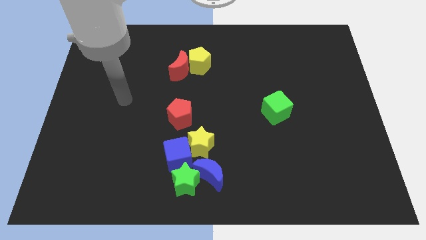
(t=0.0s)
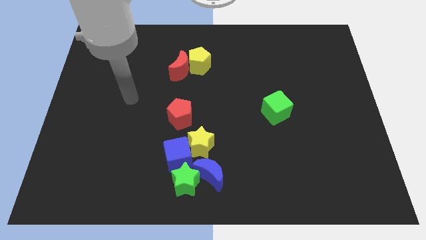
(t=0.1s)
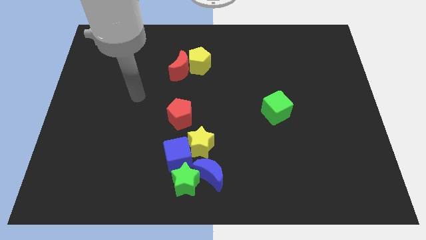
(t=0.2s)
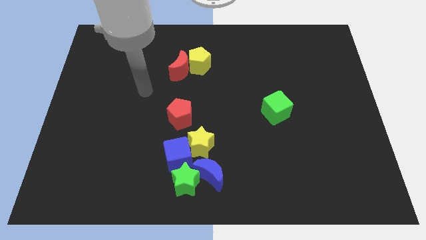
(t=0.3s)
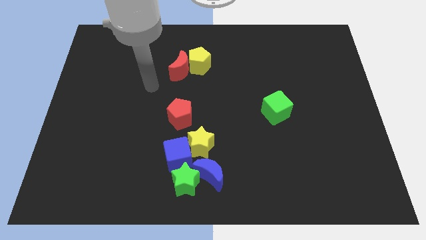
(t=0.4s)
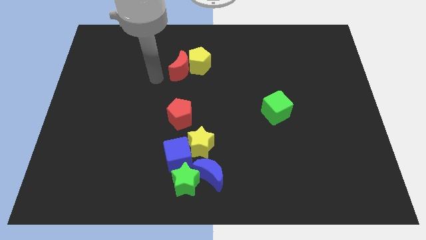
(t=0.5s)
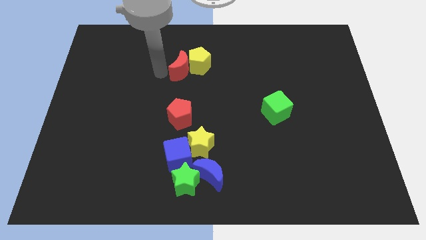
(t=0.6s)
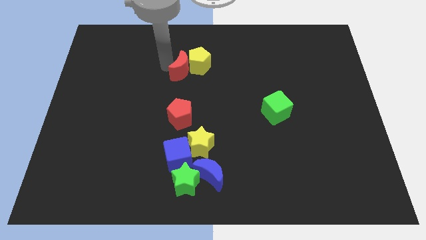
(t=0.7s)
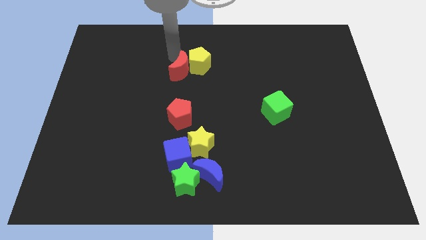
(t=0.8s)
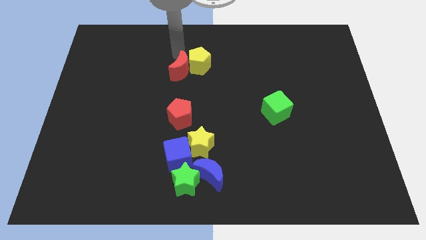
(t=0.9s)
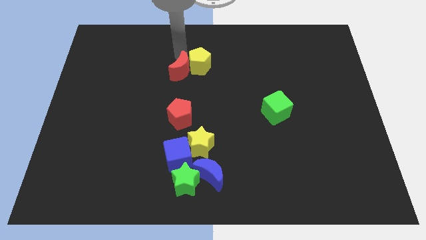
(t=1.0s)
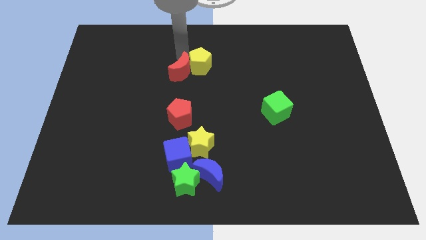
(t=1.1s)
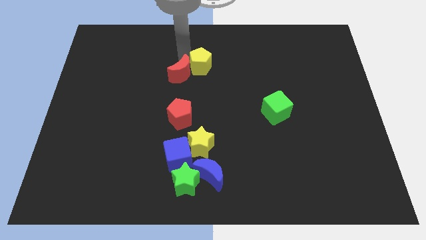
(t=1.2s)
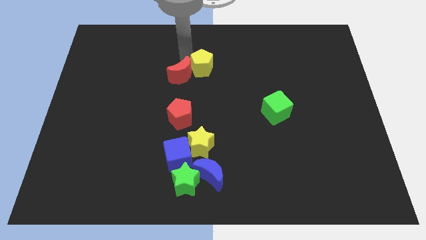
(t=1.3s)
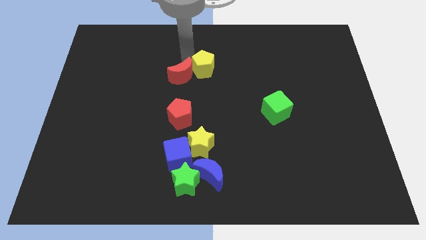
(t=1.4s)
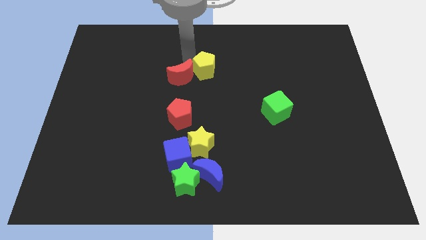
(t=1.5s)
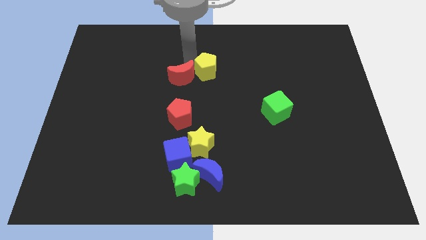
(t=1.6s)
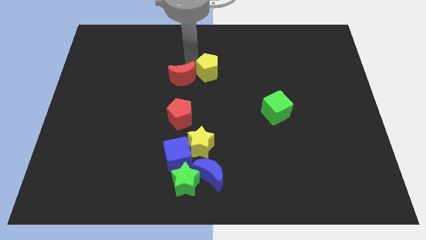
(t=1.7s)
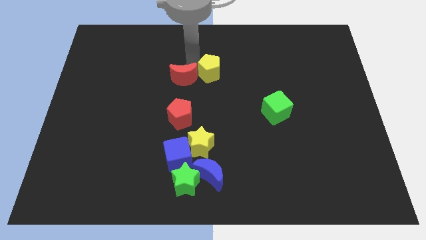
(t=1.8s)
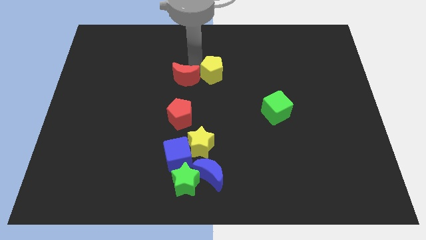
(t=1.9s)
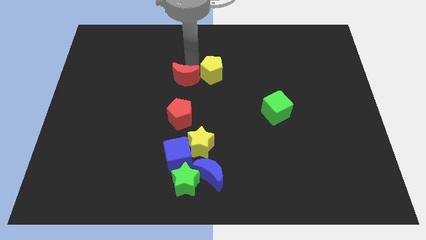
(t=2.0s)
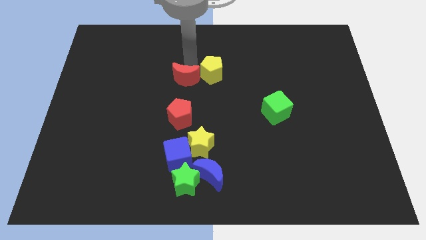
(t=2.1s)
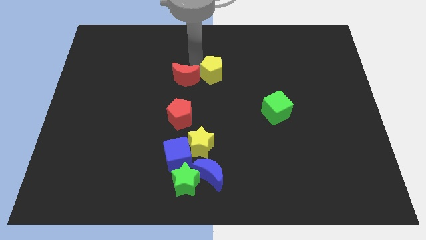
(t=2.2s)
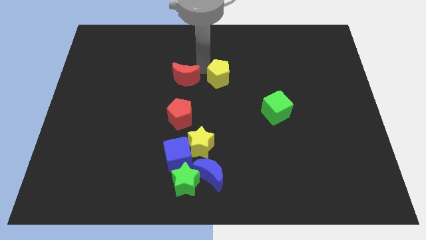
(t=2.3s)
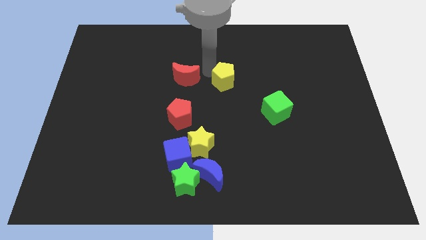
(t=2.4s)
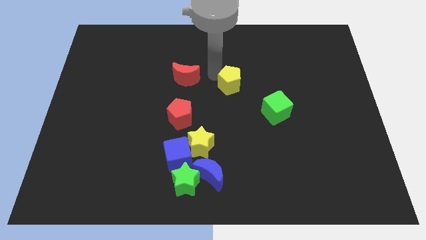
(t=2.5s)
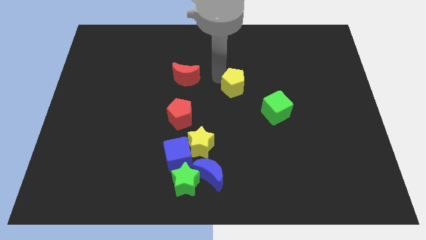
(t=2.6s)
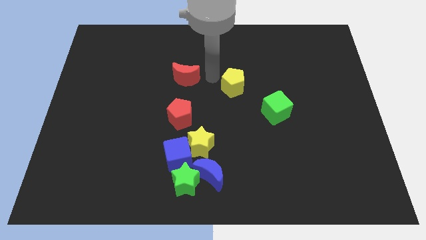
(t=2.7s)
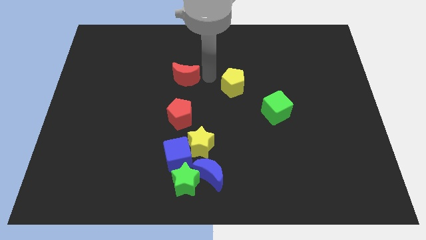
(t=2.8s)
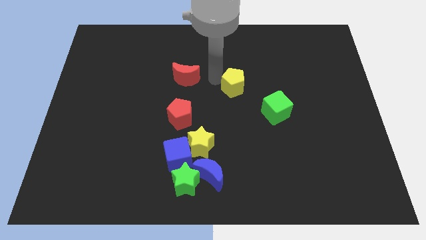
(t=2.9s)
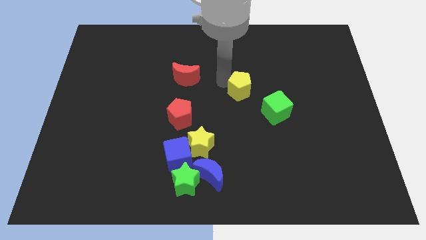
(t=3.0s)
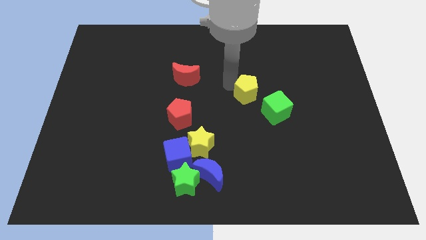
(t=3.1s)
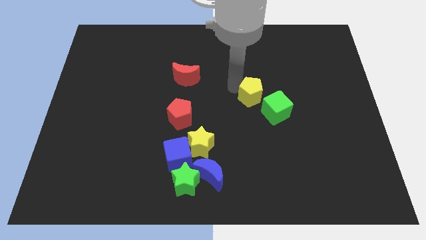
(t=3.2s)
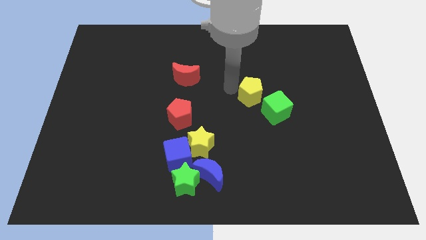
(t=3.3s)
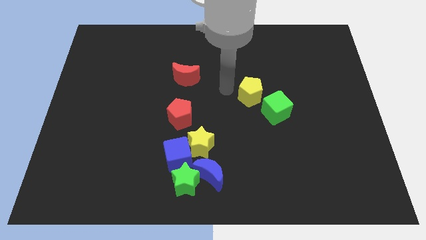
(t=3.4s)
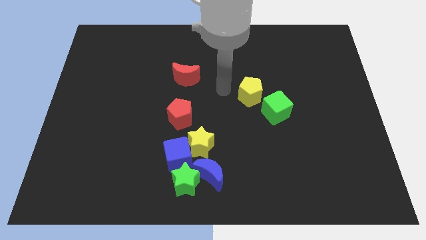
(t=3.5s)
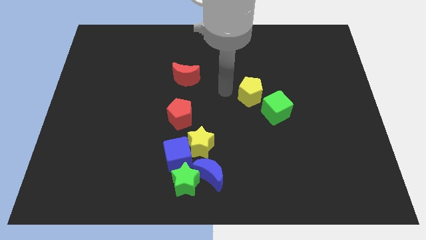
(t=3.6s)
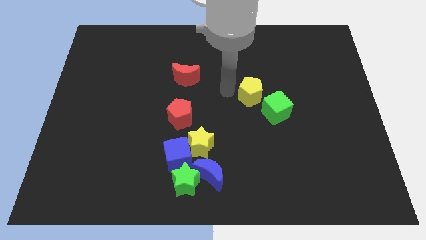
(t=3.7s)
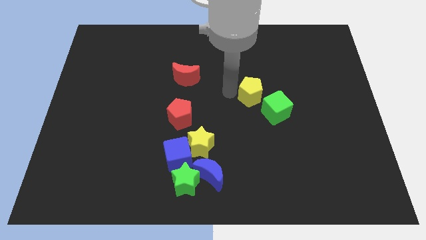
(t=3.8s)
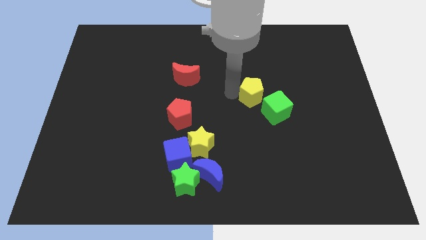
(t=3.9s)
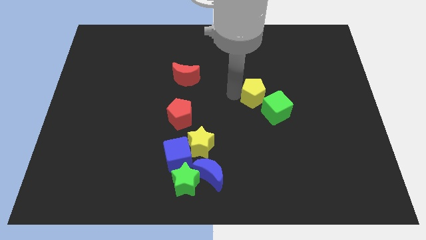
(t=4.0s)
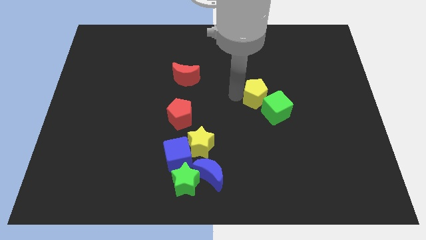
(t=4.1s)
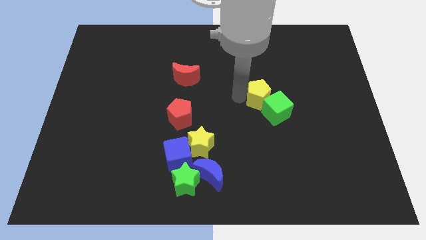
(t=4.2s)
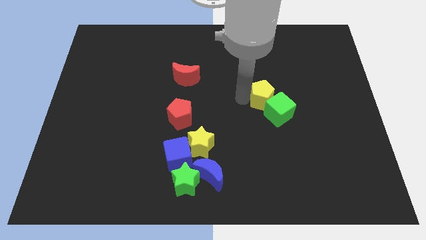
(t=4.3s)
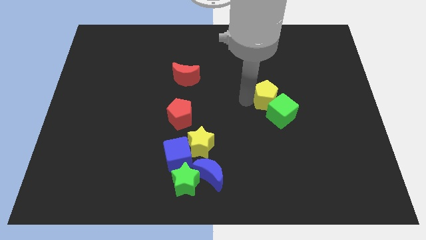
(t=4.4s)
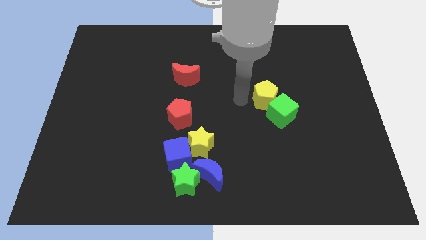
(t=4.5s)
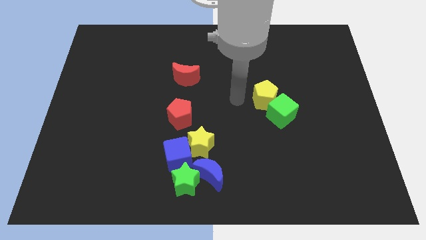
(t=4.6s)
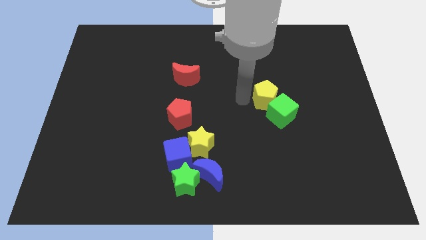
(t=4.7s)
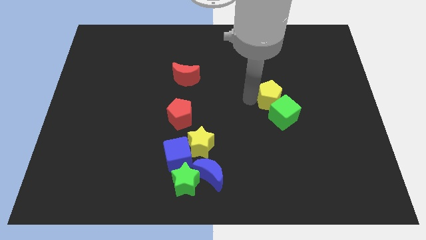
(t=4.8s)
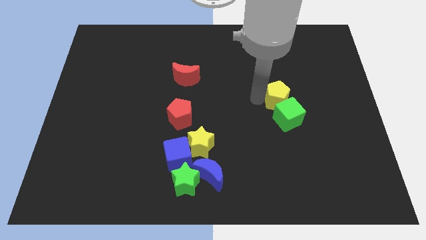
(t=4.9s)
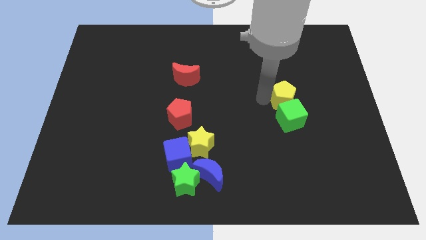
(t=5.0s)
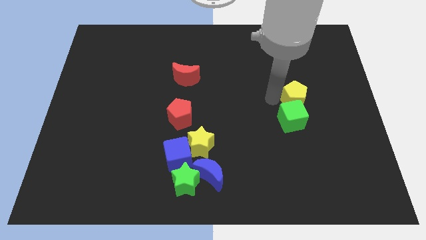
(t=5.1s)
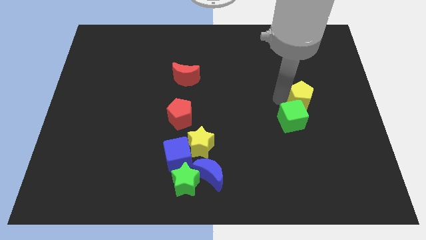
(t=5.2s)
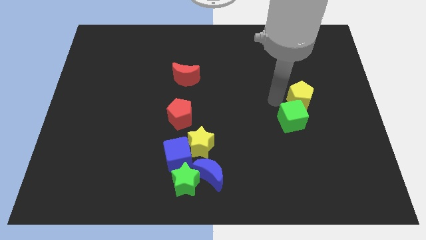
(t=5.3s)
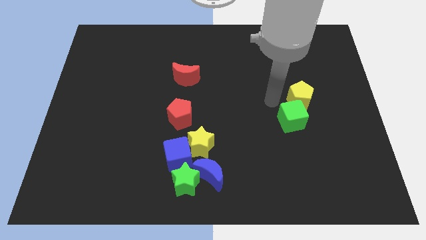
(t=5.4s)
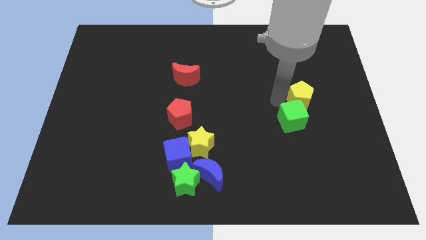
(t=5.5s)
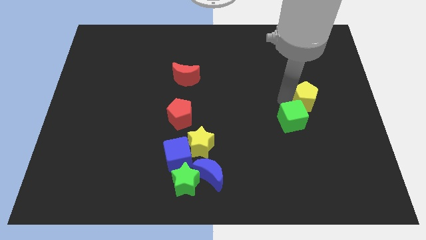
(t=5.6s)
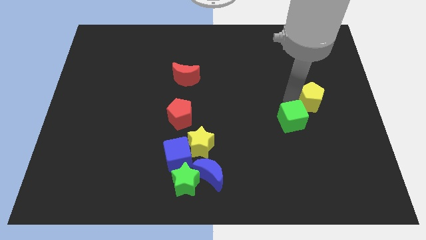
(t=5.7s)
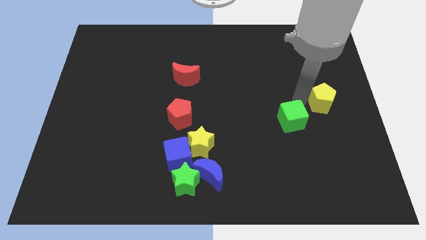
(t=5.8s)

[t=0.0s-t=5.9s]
move the yellow pentagon to the right side
